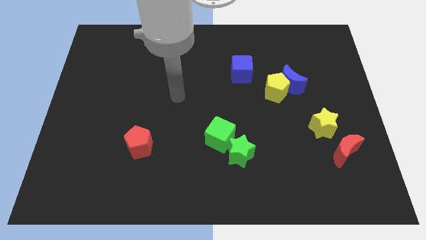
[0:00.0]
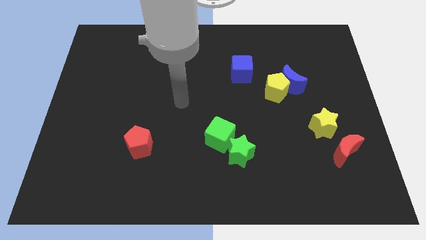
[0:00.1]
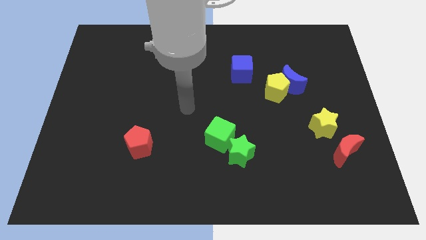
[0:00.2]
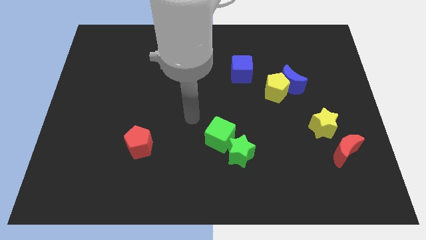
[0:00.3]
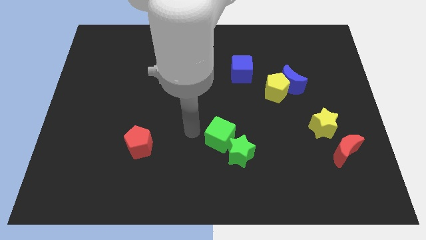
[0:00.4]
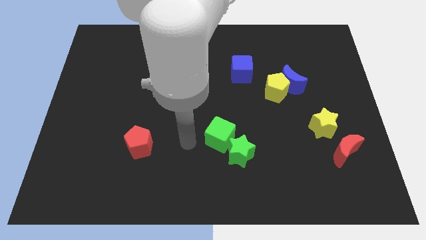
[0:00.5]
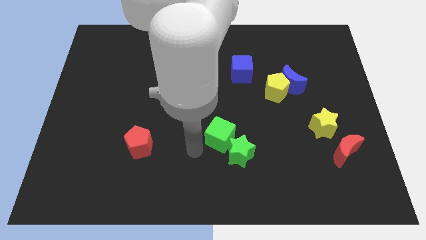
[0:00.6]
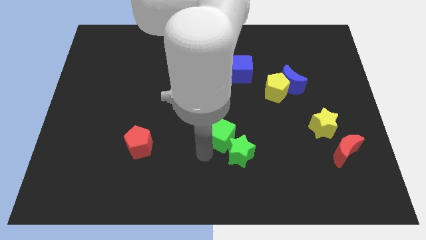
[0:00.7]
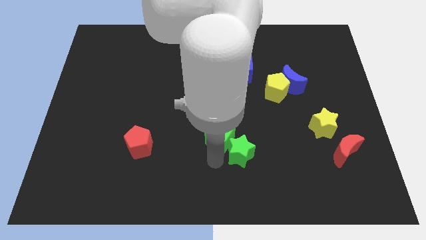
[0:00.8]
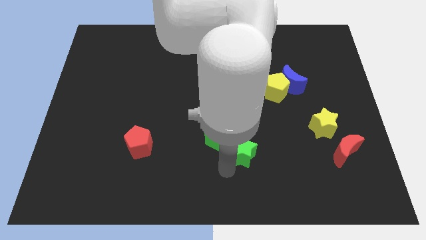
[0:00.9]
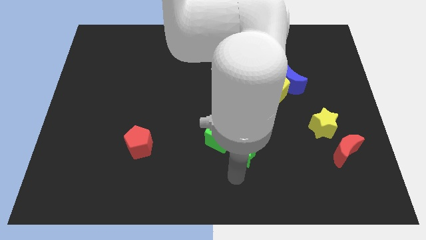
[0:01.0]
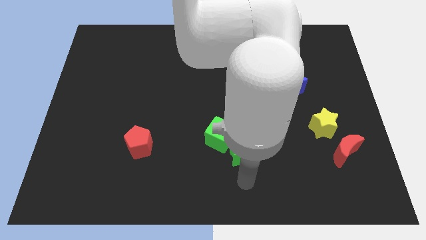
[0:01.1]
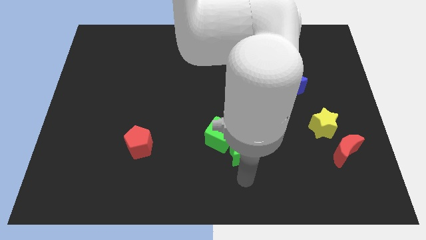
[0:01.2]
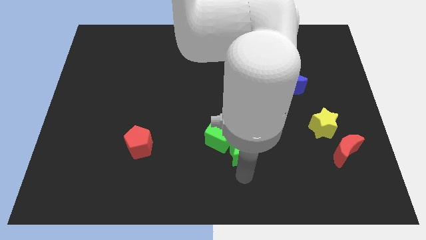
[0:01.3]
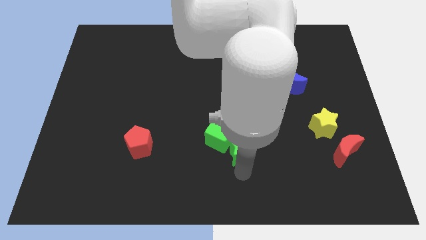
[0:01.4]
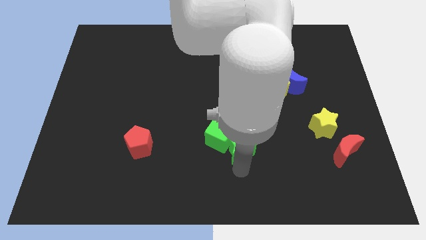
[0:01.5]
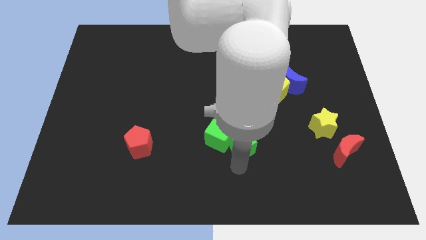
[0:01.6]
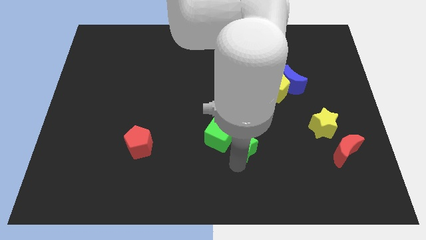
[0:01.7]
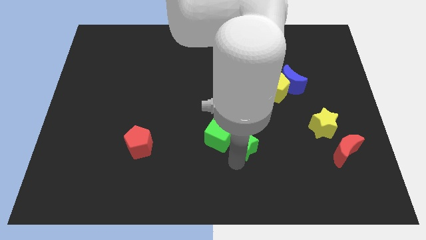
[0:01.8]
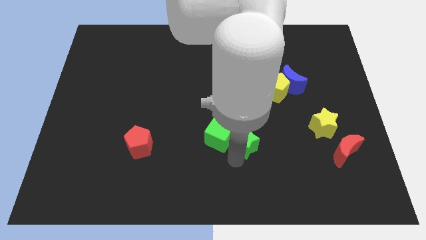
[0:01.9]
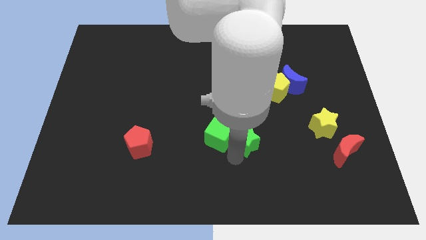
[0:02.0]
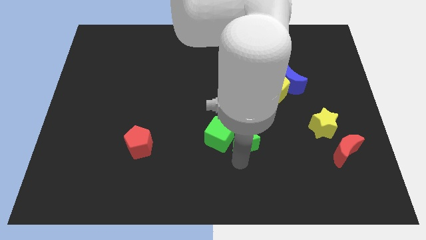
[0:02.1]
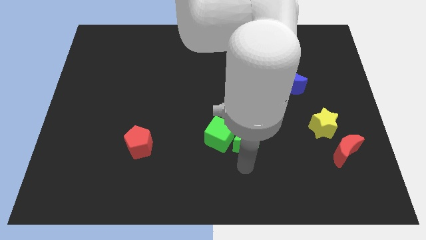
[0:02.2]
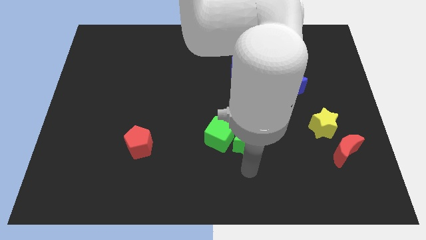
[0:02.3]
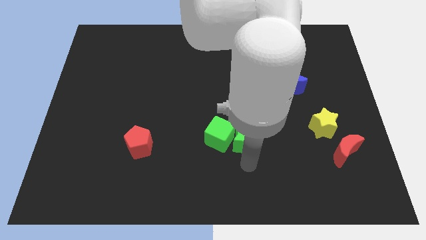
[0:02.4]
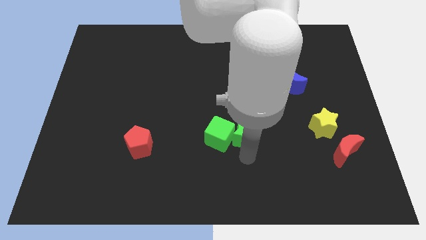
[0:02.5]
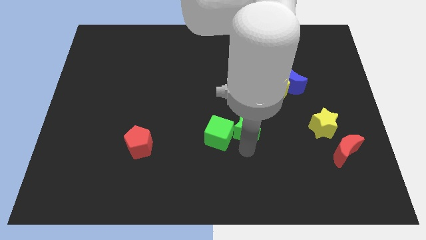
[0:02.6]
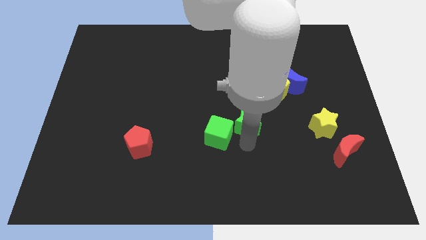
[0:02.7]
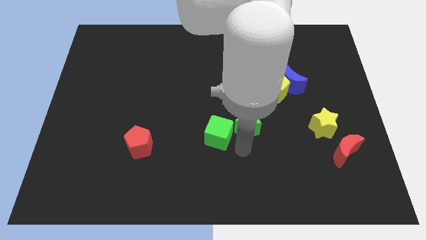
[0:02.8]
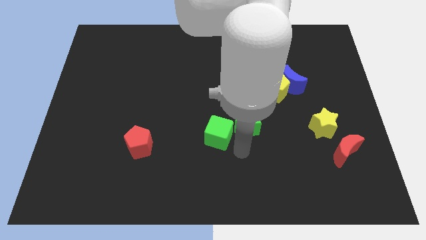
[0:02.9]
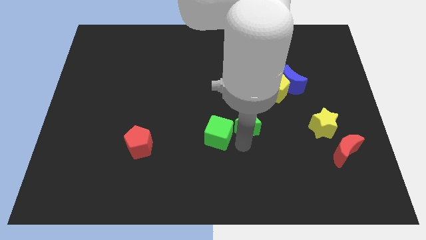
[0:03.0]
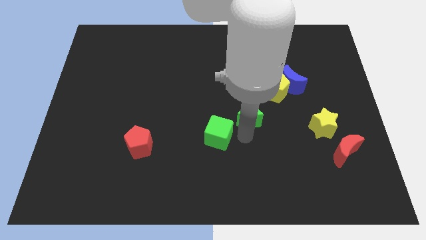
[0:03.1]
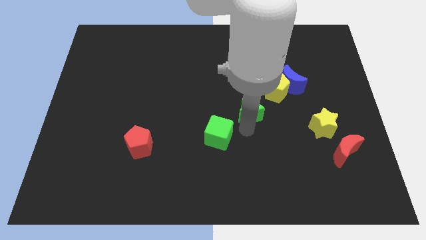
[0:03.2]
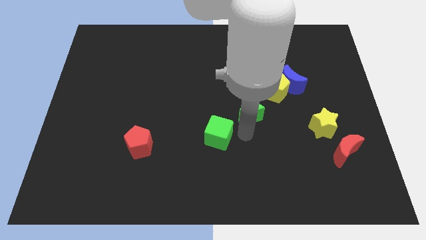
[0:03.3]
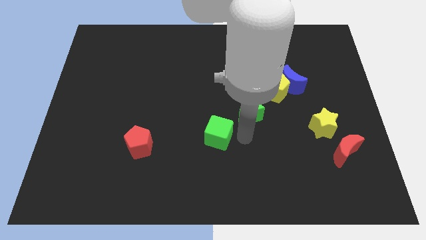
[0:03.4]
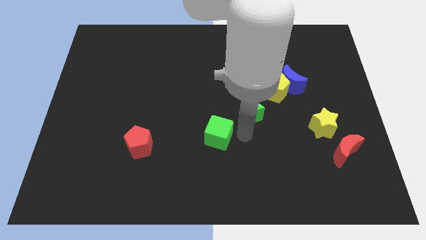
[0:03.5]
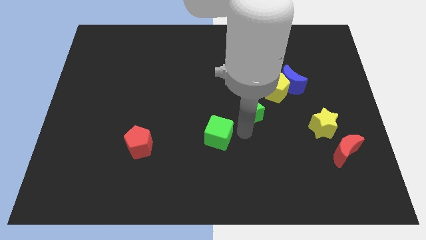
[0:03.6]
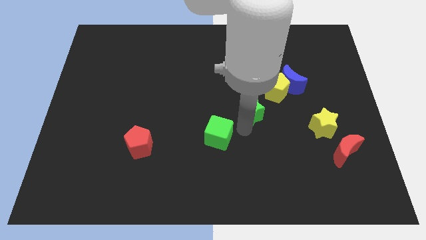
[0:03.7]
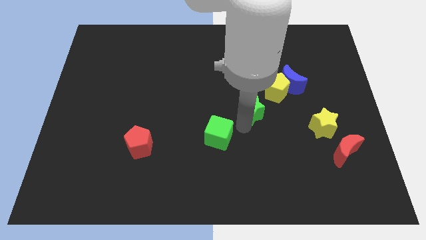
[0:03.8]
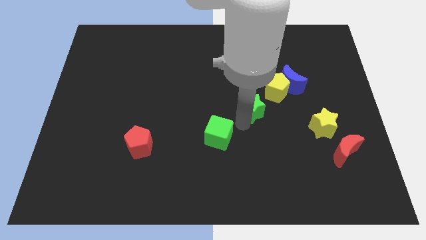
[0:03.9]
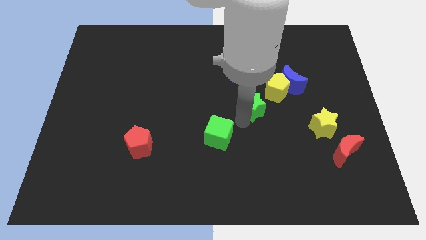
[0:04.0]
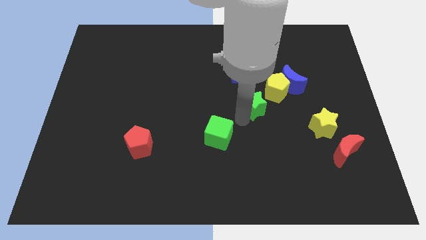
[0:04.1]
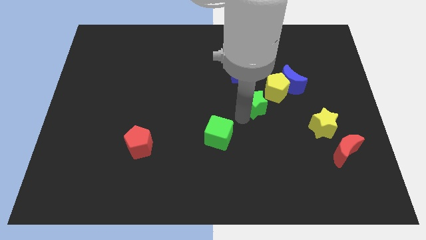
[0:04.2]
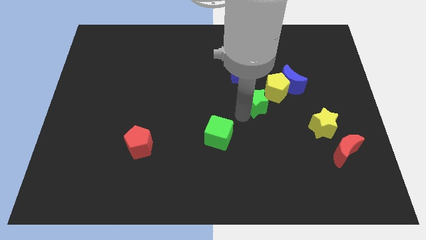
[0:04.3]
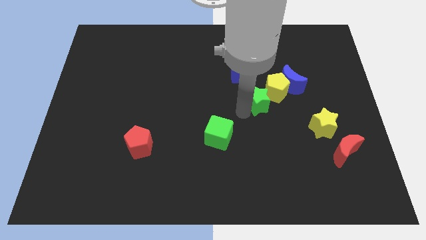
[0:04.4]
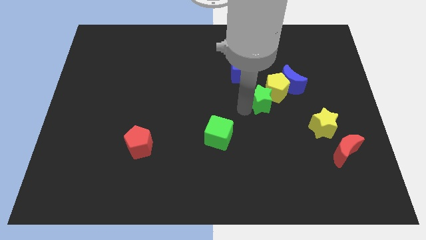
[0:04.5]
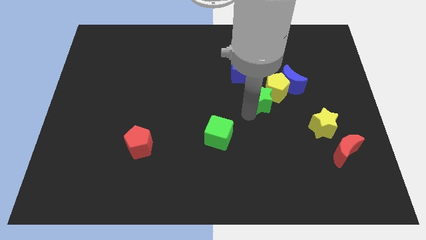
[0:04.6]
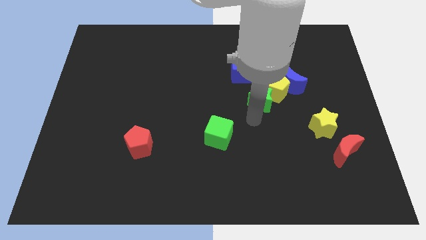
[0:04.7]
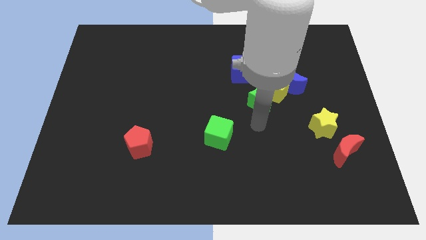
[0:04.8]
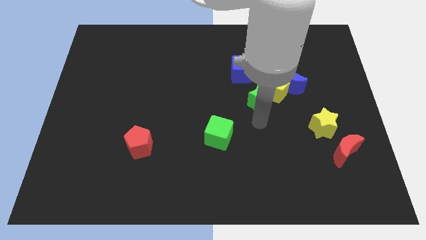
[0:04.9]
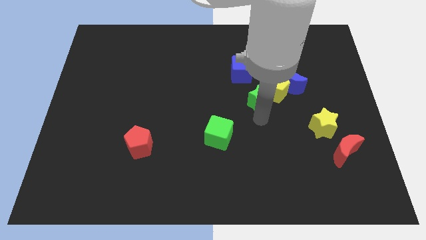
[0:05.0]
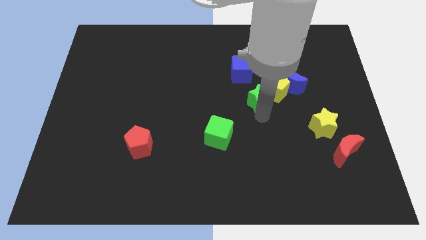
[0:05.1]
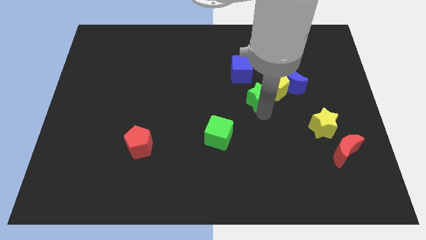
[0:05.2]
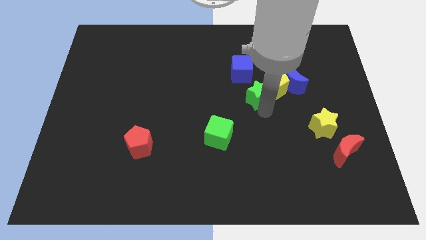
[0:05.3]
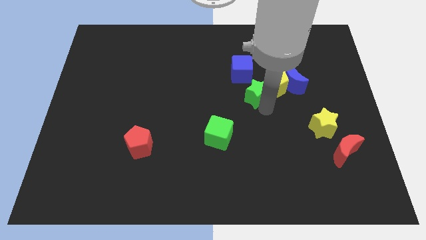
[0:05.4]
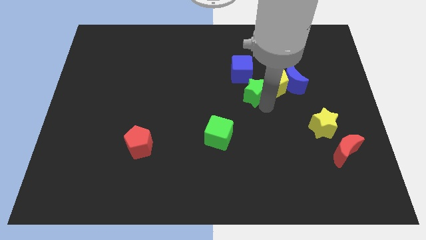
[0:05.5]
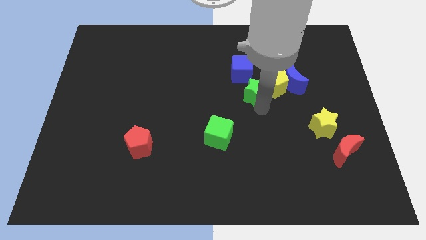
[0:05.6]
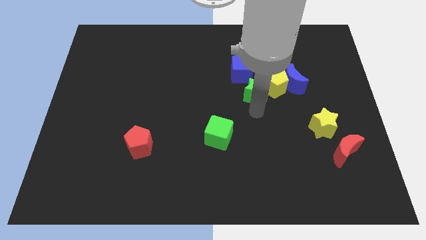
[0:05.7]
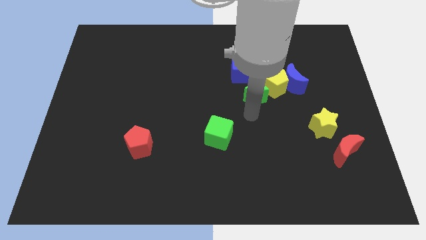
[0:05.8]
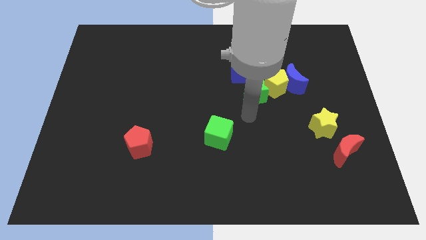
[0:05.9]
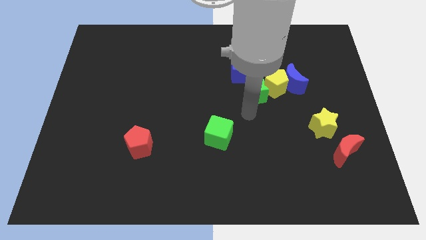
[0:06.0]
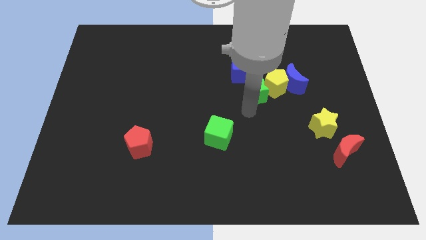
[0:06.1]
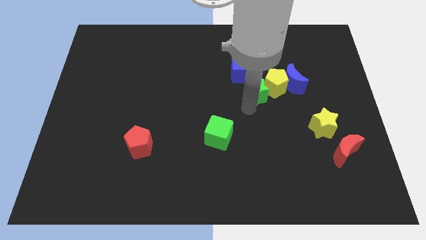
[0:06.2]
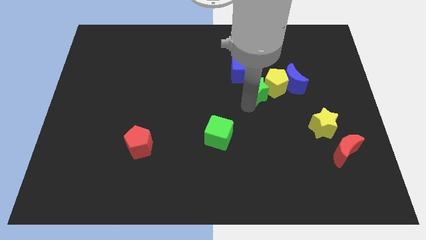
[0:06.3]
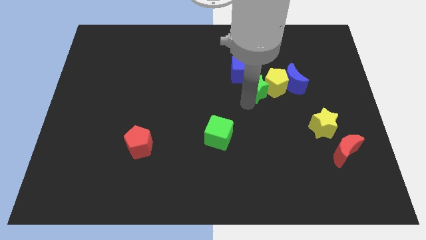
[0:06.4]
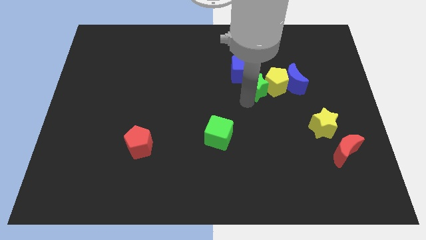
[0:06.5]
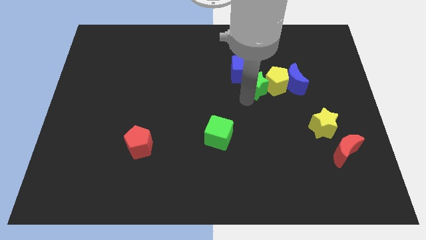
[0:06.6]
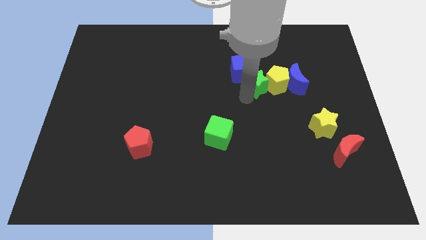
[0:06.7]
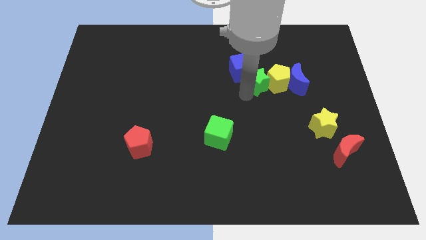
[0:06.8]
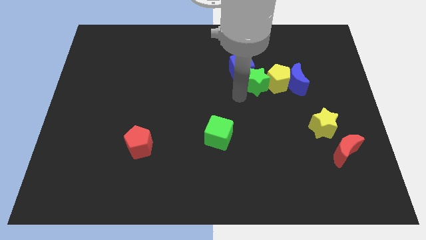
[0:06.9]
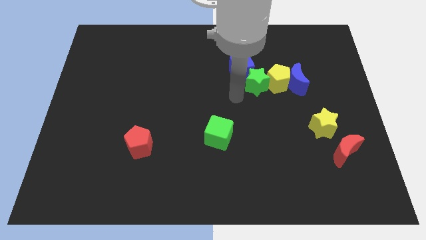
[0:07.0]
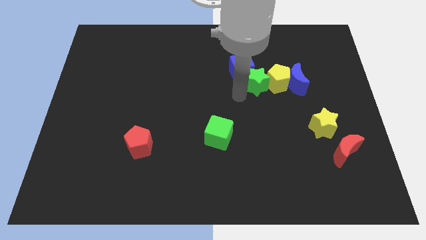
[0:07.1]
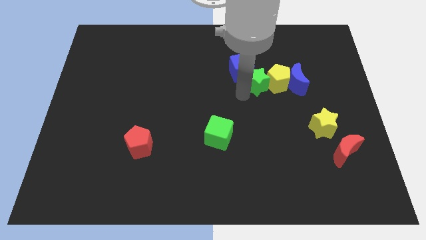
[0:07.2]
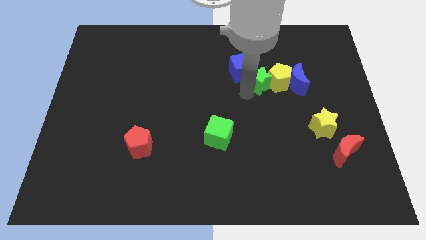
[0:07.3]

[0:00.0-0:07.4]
move the green star to the right of the blue cube
